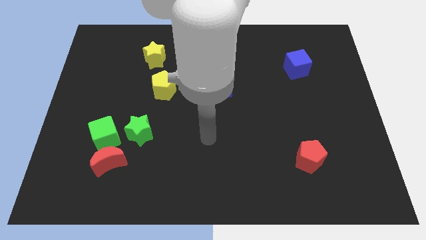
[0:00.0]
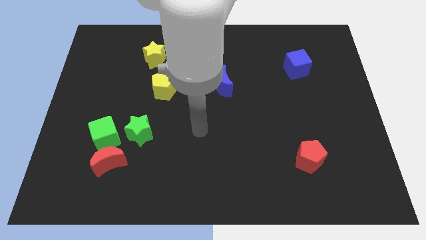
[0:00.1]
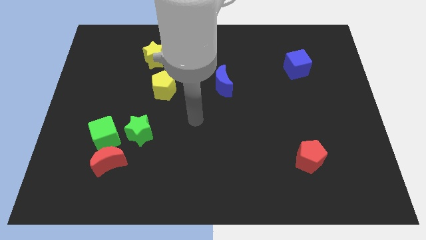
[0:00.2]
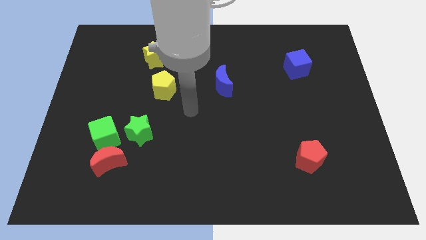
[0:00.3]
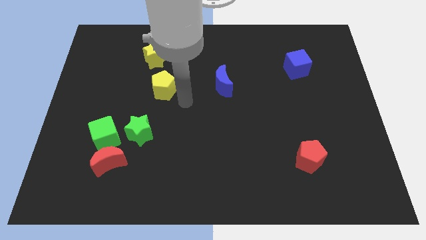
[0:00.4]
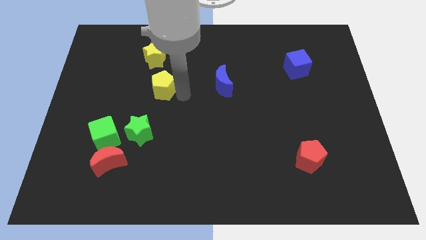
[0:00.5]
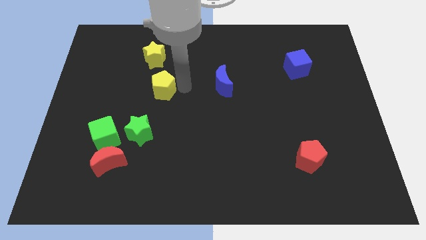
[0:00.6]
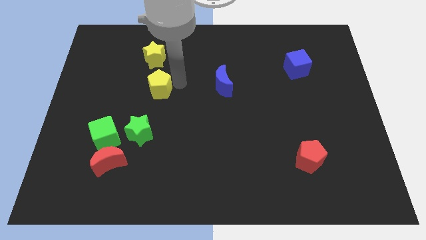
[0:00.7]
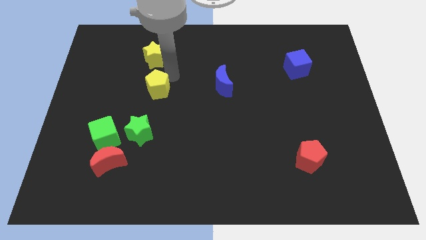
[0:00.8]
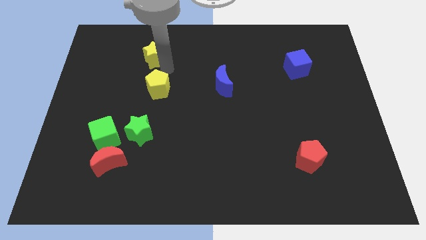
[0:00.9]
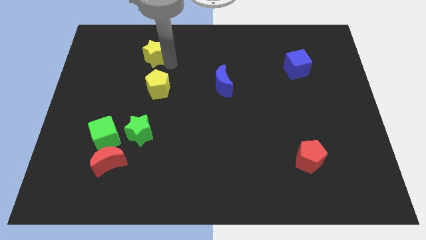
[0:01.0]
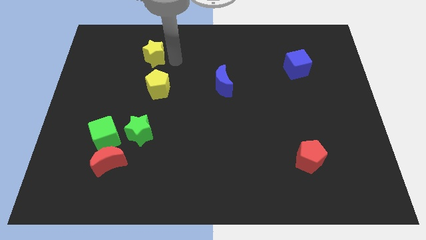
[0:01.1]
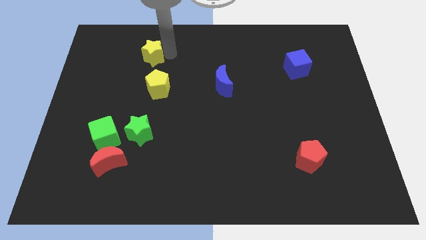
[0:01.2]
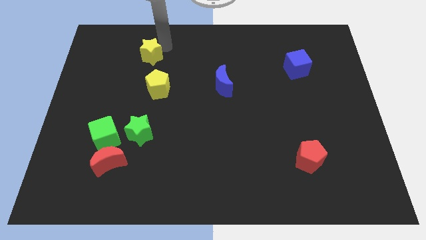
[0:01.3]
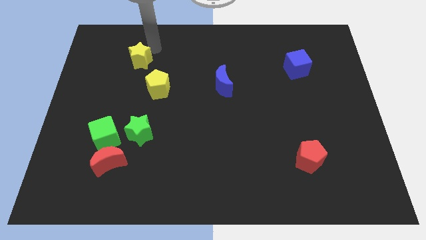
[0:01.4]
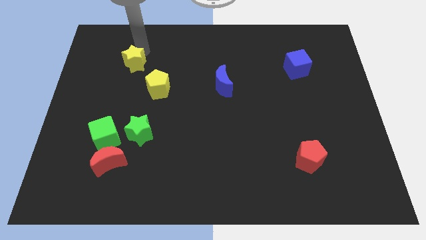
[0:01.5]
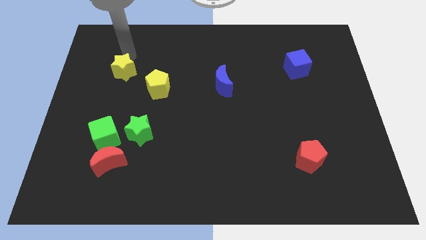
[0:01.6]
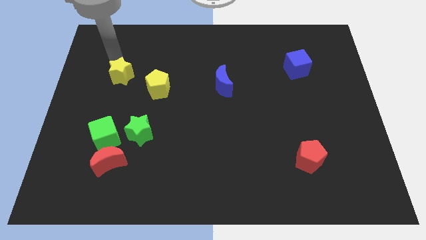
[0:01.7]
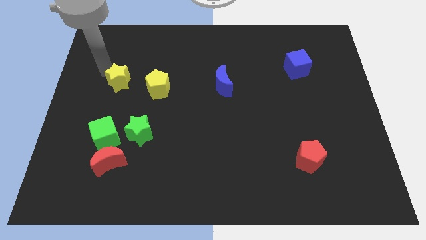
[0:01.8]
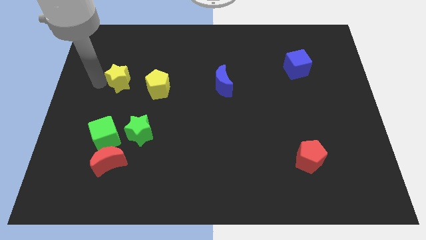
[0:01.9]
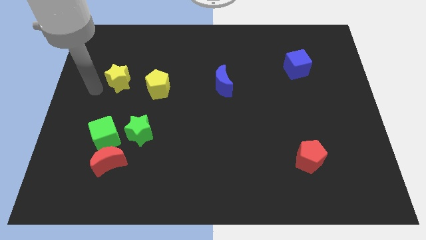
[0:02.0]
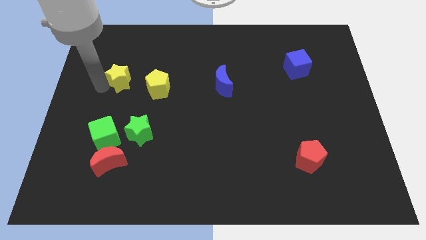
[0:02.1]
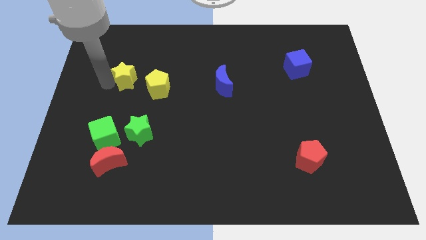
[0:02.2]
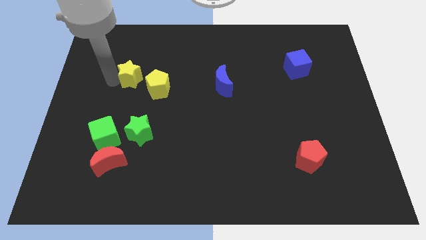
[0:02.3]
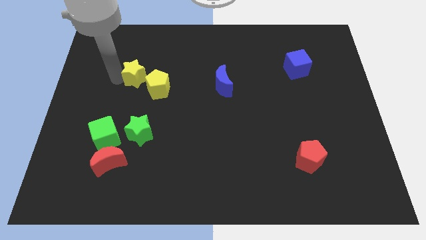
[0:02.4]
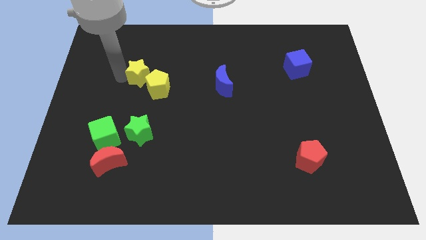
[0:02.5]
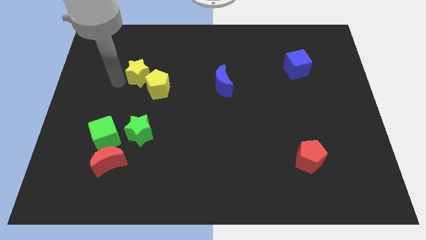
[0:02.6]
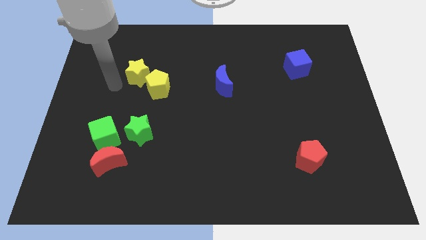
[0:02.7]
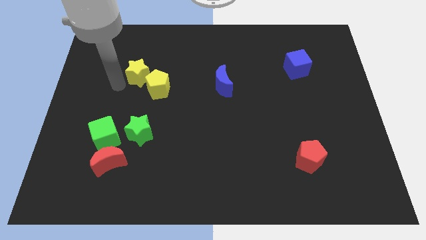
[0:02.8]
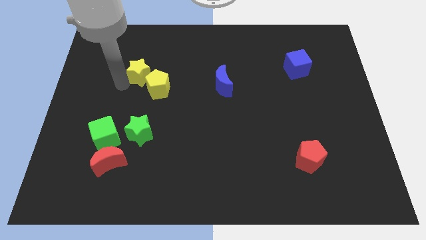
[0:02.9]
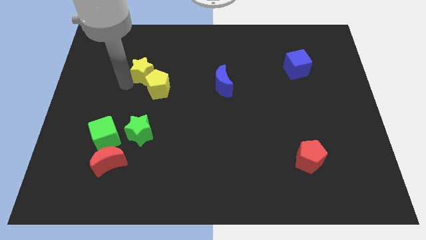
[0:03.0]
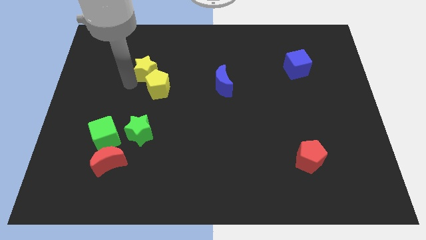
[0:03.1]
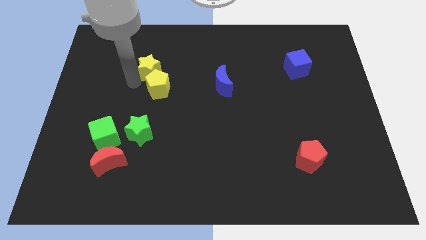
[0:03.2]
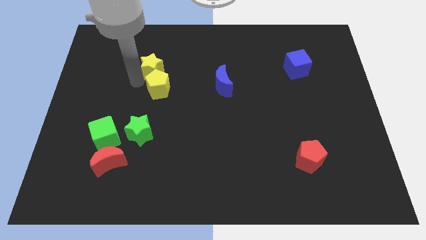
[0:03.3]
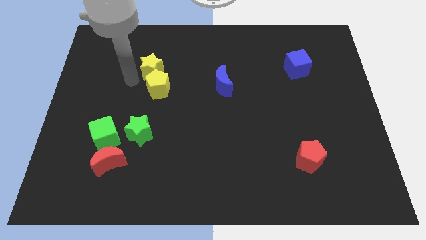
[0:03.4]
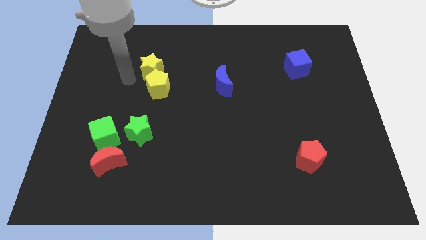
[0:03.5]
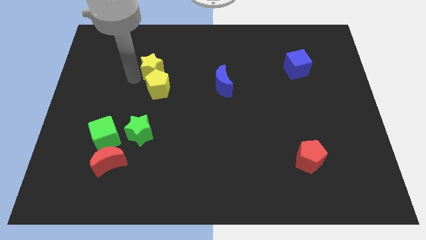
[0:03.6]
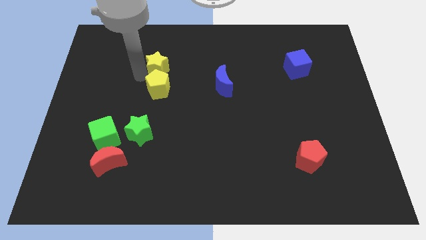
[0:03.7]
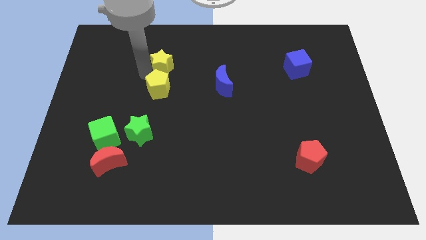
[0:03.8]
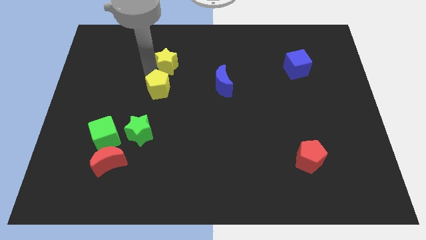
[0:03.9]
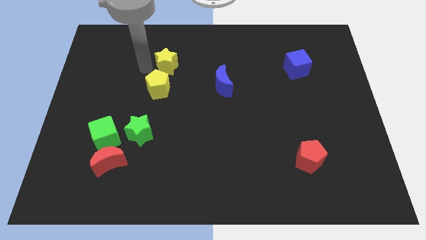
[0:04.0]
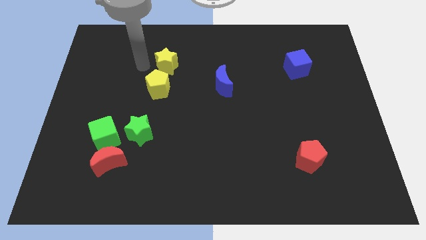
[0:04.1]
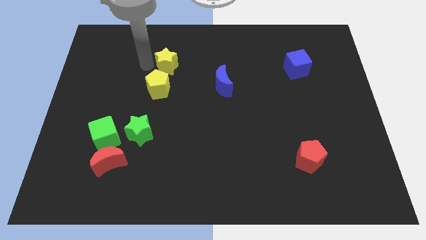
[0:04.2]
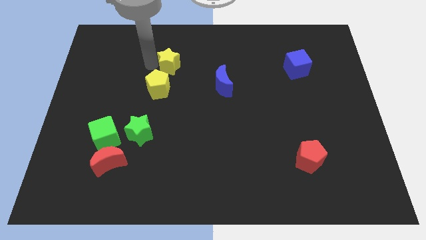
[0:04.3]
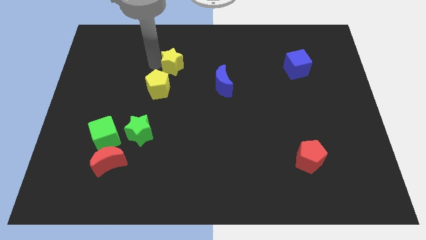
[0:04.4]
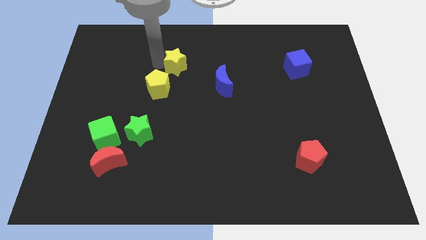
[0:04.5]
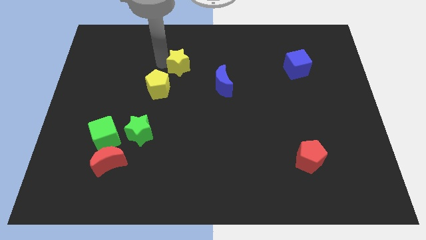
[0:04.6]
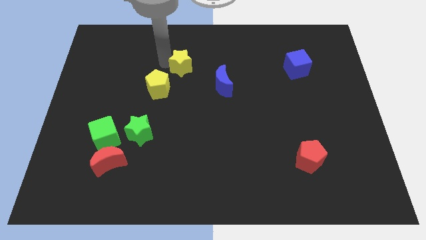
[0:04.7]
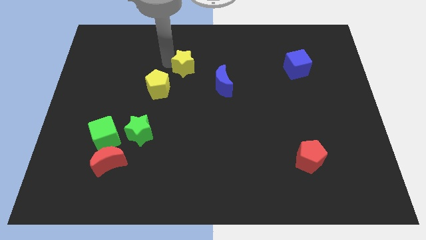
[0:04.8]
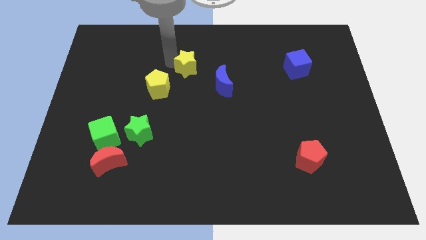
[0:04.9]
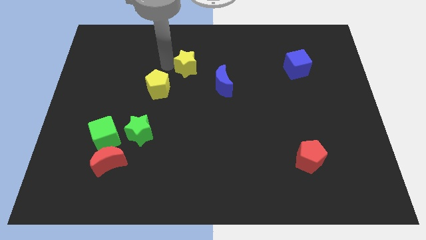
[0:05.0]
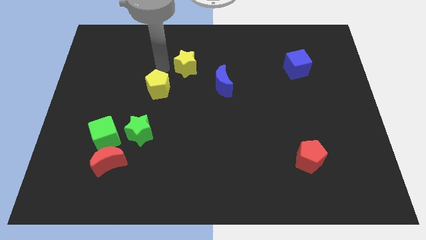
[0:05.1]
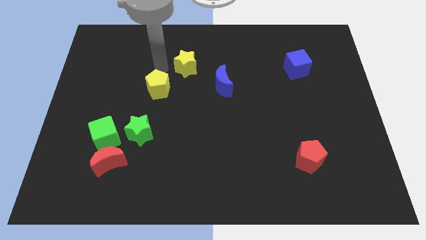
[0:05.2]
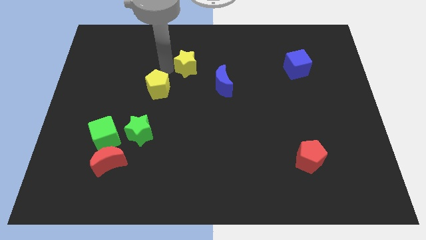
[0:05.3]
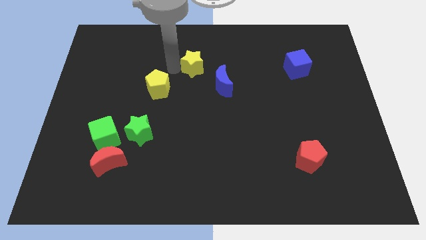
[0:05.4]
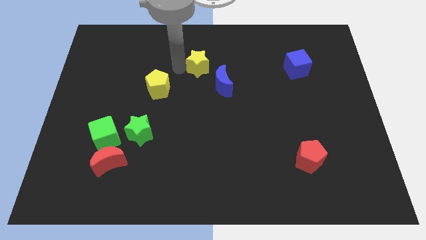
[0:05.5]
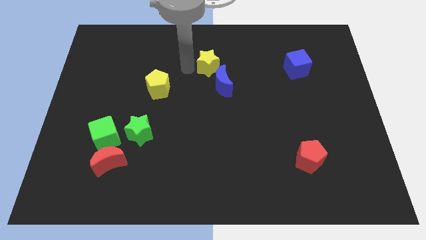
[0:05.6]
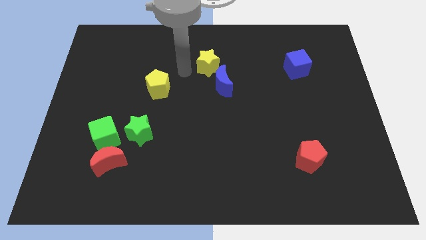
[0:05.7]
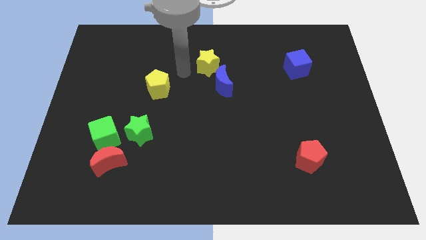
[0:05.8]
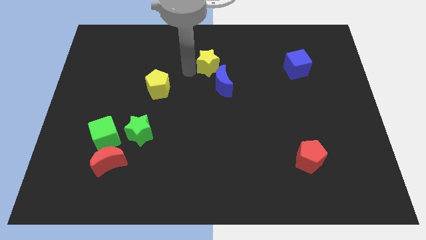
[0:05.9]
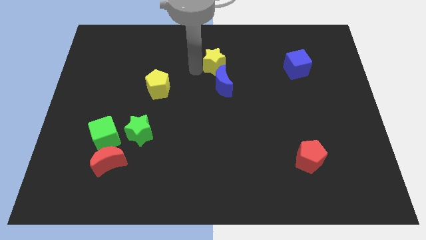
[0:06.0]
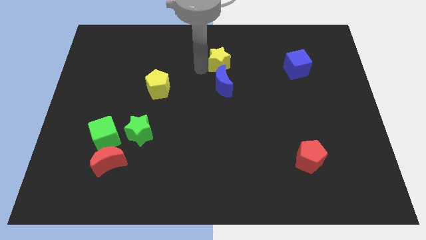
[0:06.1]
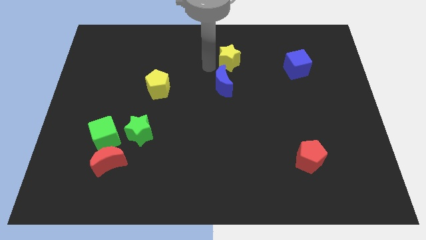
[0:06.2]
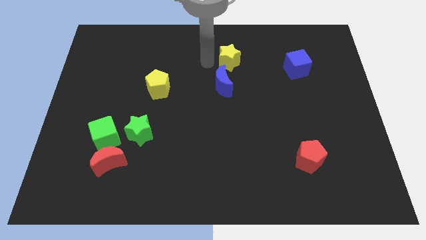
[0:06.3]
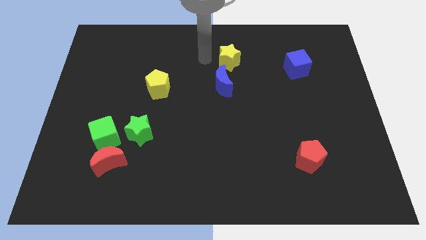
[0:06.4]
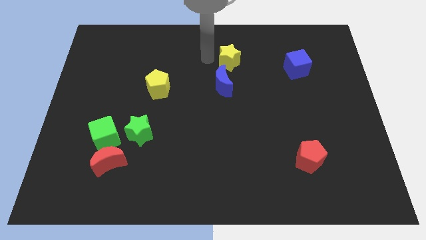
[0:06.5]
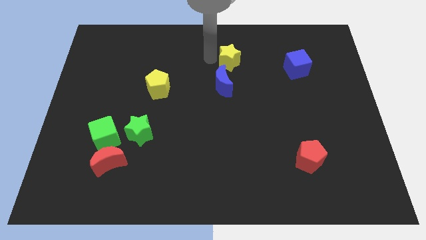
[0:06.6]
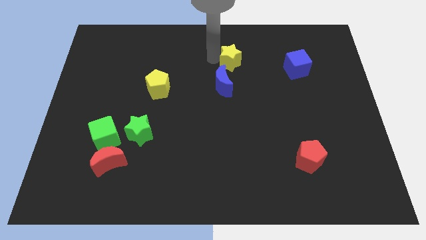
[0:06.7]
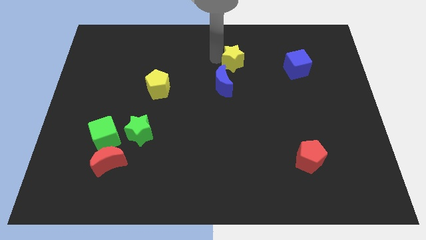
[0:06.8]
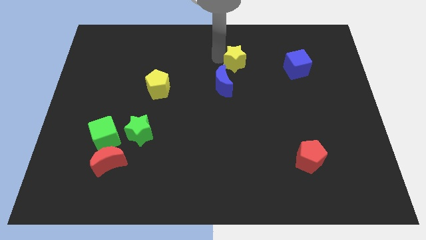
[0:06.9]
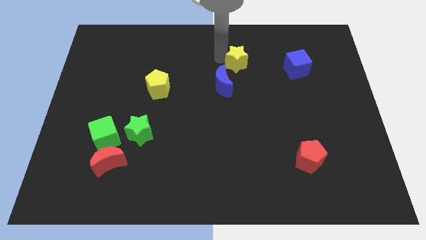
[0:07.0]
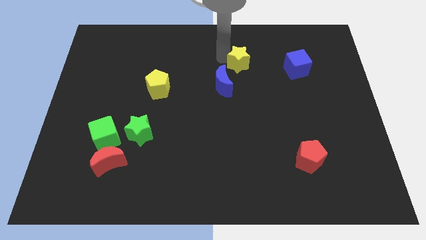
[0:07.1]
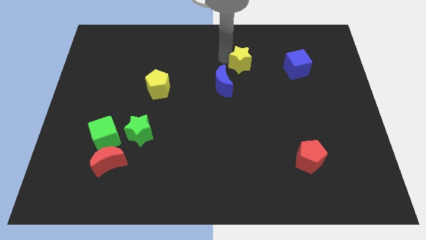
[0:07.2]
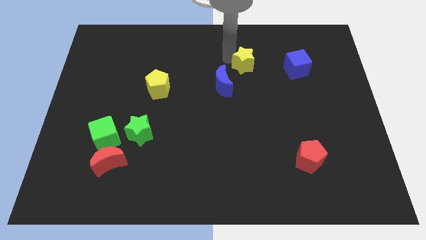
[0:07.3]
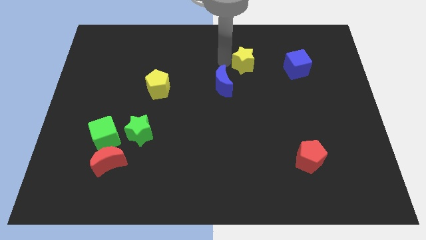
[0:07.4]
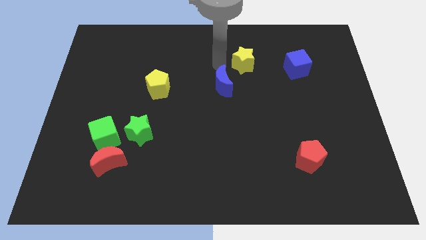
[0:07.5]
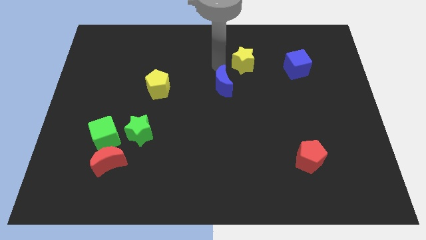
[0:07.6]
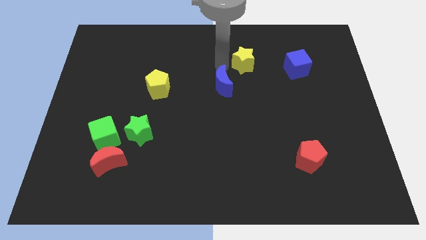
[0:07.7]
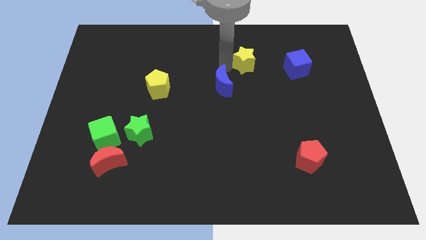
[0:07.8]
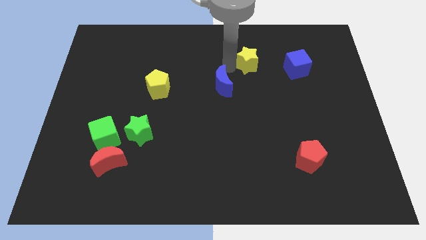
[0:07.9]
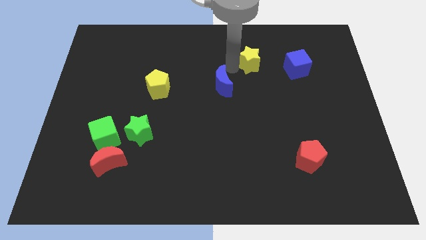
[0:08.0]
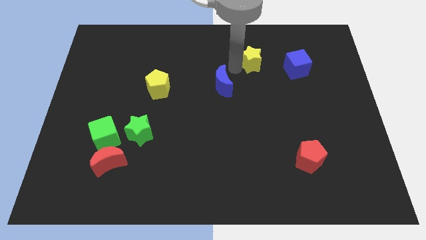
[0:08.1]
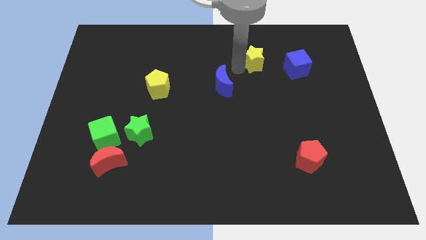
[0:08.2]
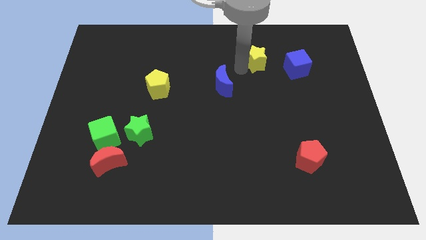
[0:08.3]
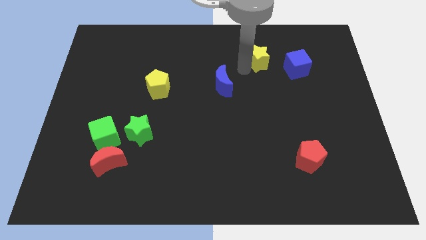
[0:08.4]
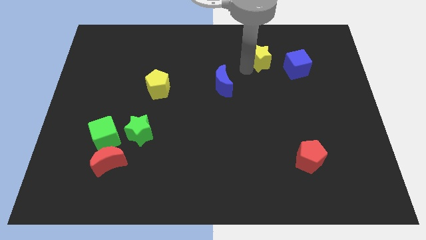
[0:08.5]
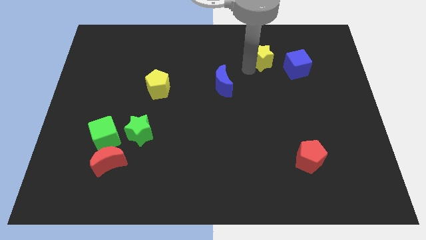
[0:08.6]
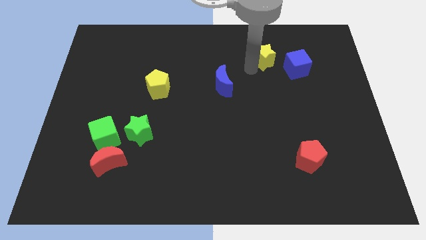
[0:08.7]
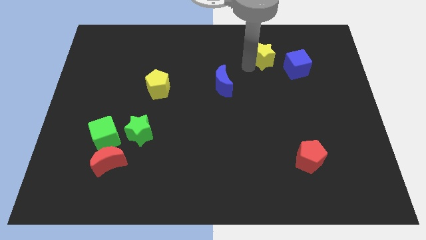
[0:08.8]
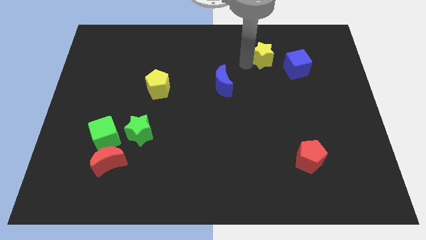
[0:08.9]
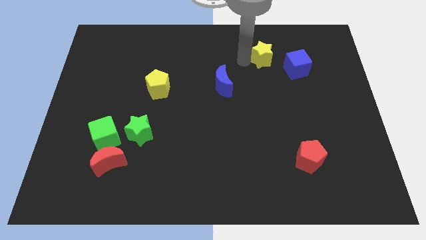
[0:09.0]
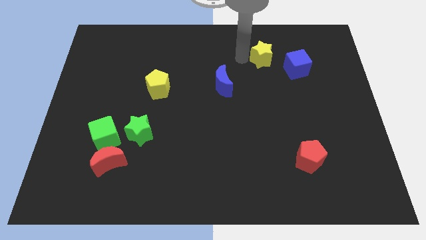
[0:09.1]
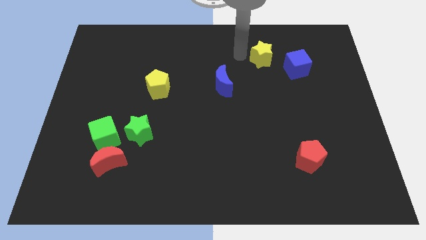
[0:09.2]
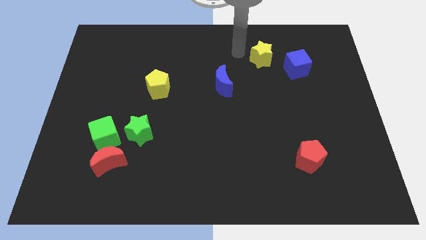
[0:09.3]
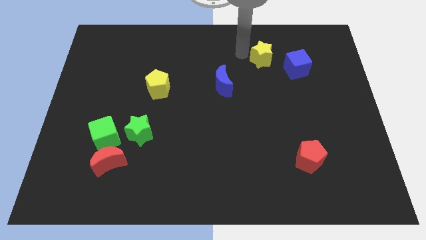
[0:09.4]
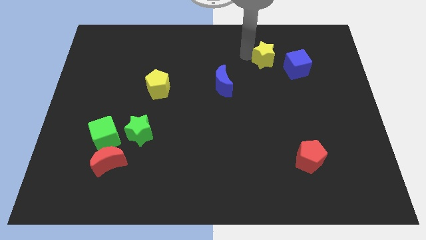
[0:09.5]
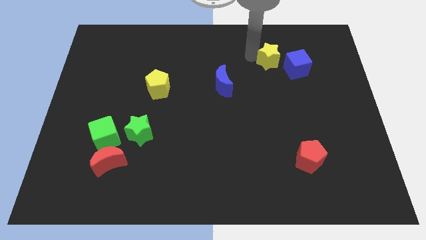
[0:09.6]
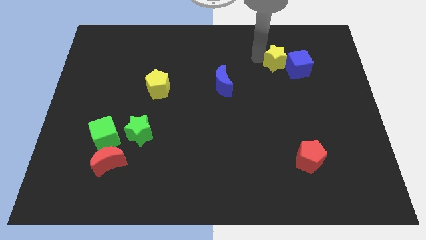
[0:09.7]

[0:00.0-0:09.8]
put the yellow star towards the blue cube
